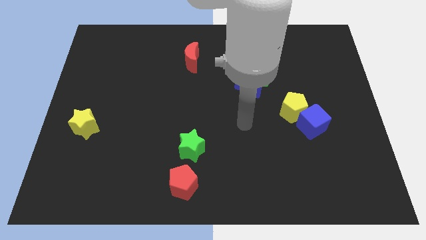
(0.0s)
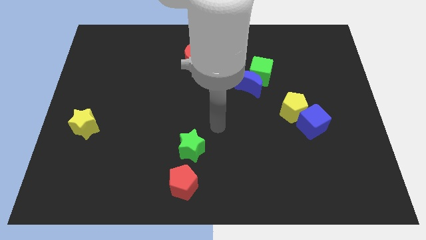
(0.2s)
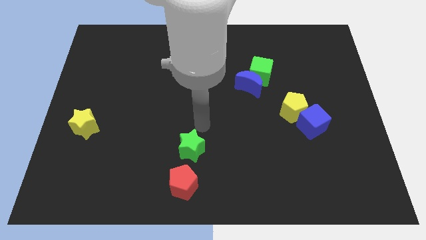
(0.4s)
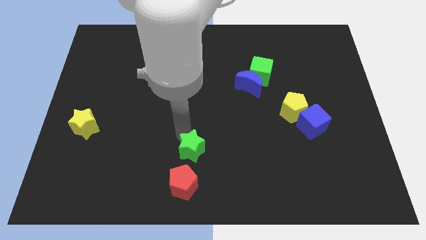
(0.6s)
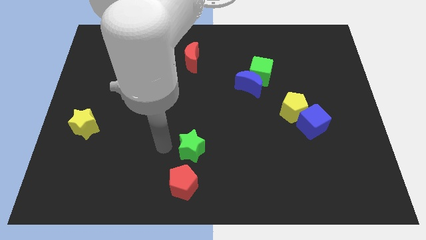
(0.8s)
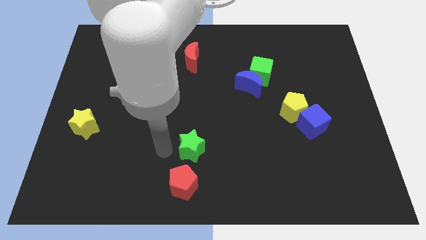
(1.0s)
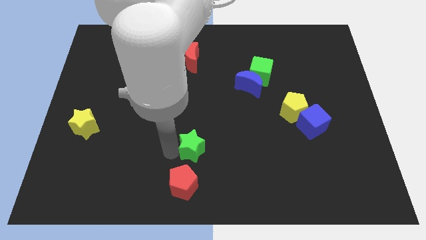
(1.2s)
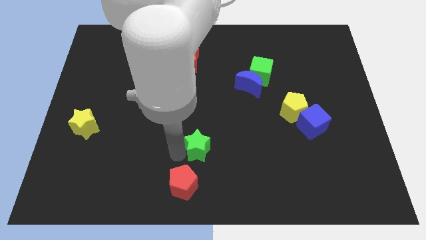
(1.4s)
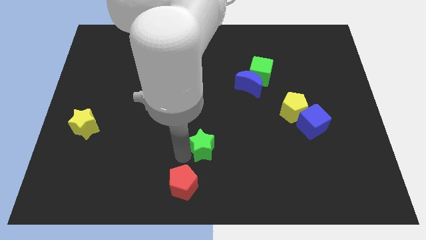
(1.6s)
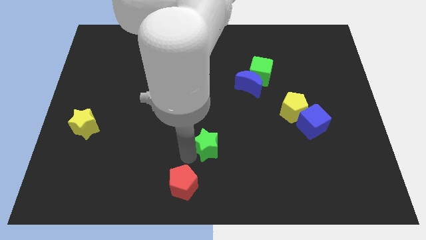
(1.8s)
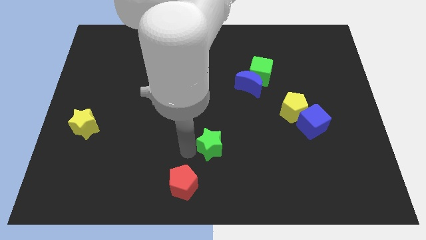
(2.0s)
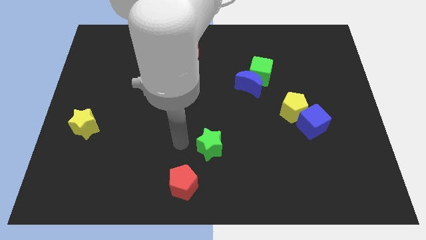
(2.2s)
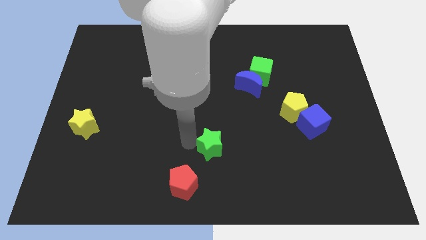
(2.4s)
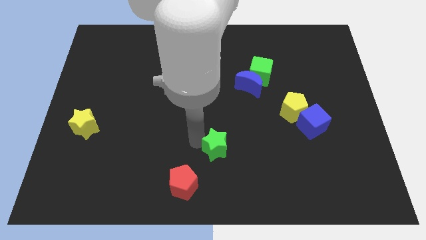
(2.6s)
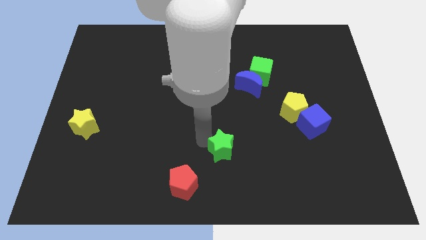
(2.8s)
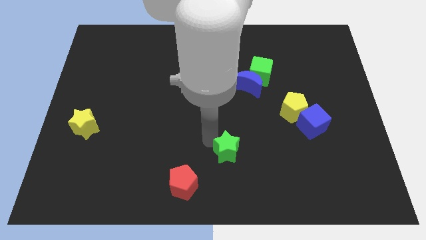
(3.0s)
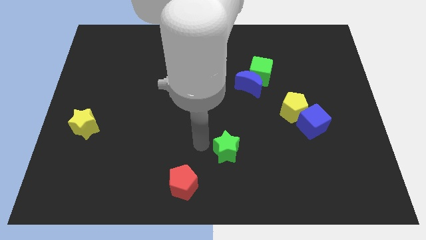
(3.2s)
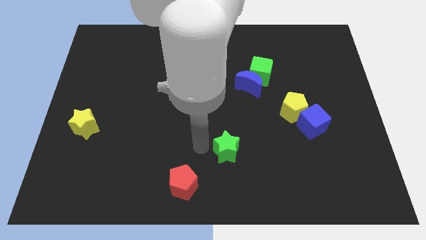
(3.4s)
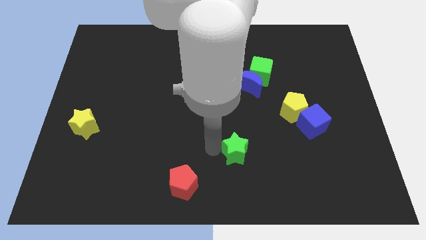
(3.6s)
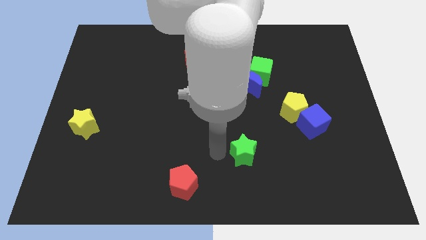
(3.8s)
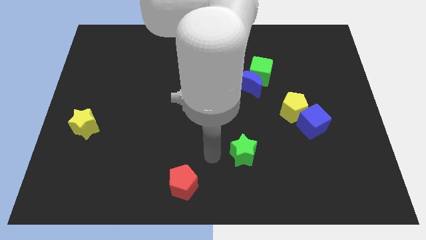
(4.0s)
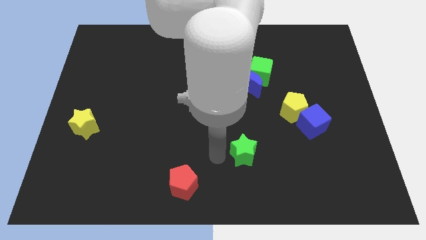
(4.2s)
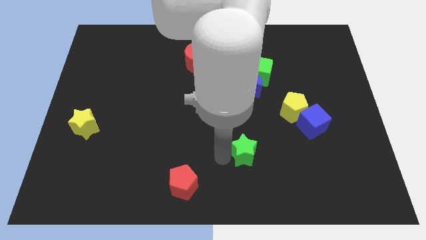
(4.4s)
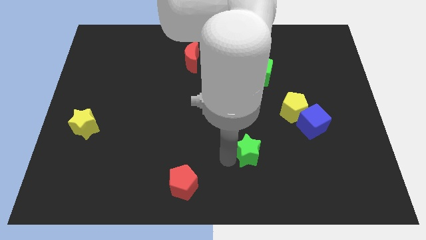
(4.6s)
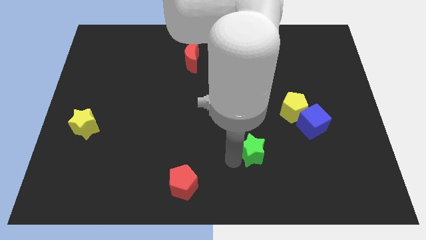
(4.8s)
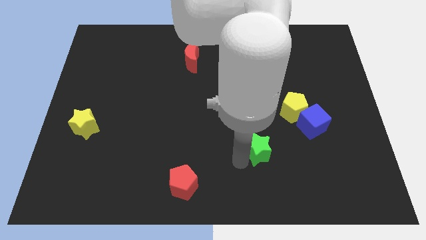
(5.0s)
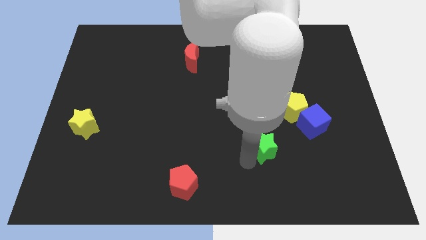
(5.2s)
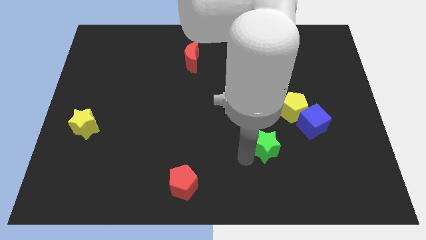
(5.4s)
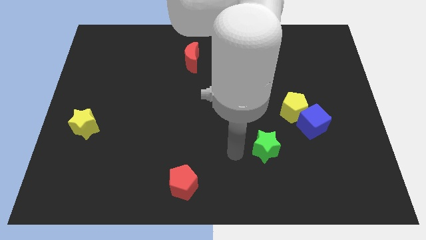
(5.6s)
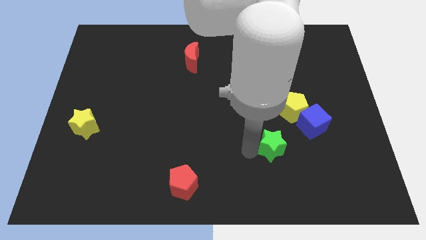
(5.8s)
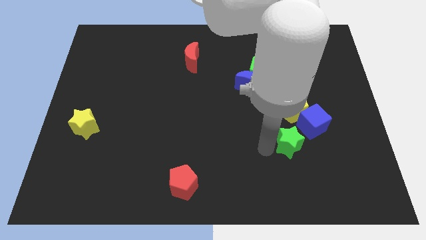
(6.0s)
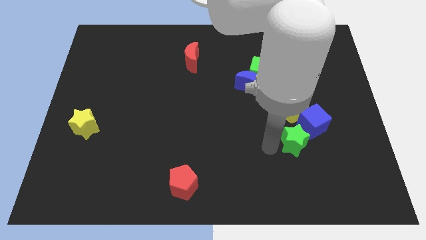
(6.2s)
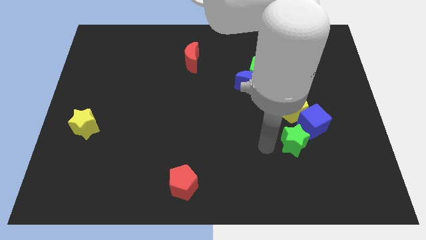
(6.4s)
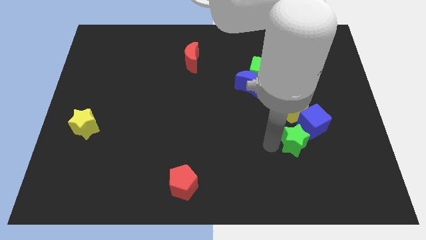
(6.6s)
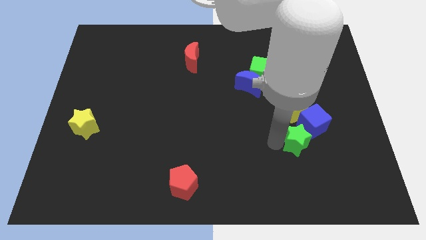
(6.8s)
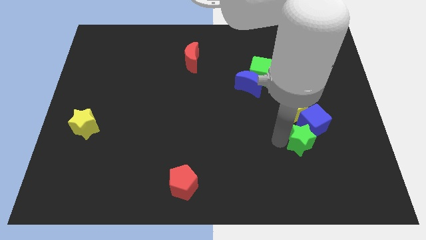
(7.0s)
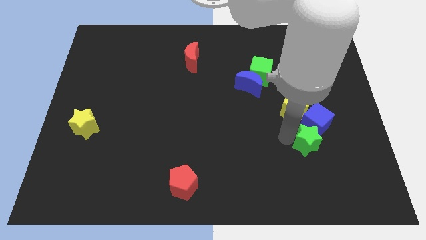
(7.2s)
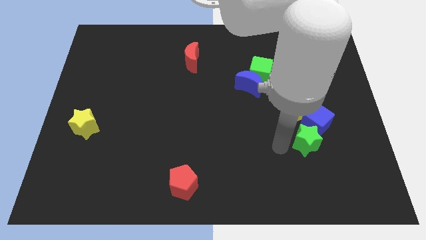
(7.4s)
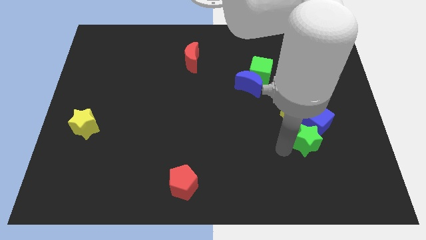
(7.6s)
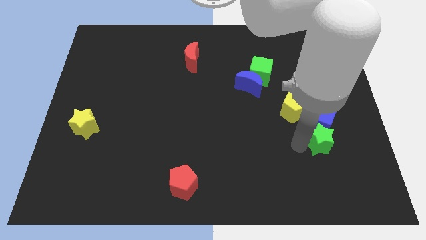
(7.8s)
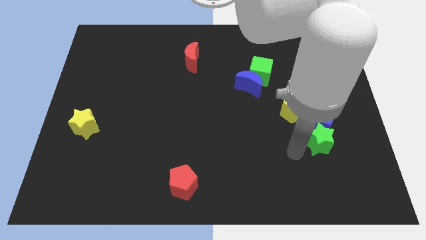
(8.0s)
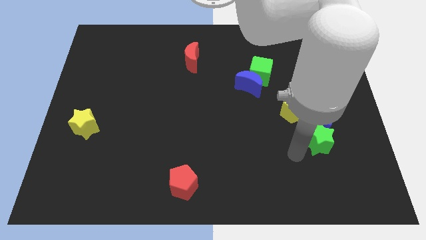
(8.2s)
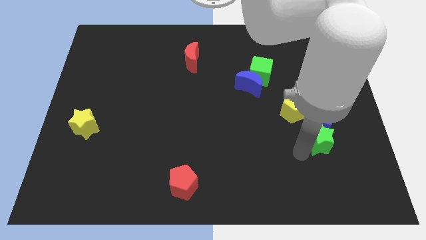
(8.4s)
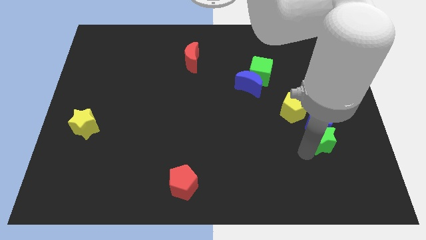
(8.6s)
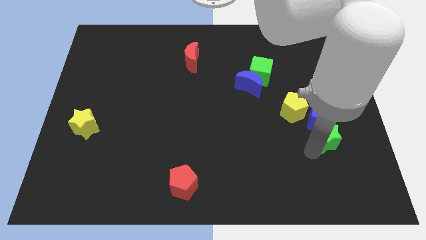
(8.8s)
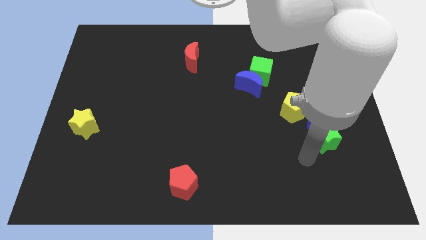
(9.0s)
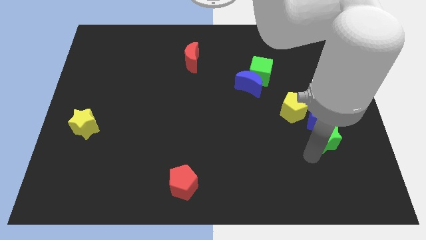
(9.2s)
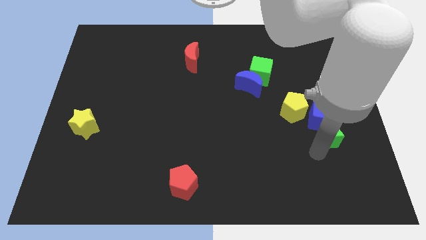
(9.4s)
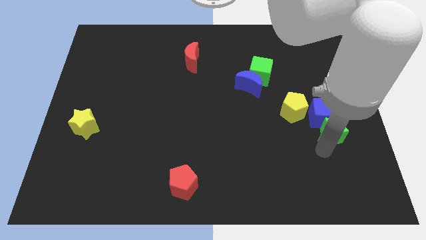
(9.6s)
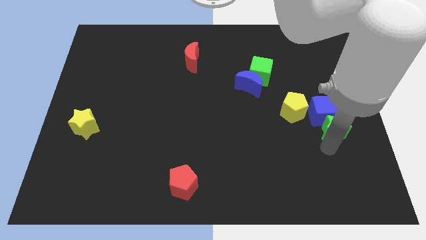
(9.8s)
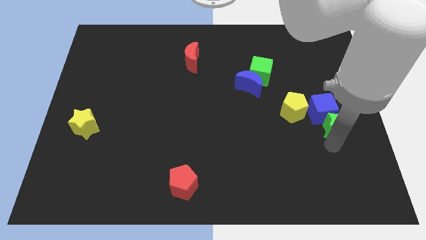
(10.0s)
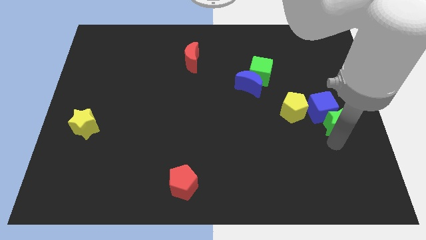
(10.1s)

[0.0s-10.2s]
slide the green star to the right side of the board

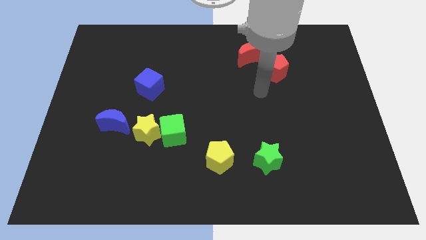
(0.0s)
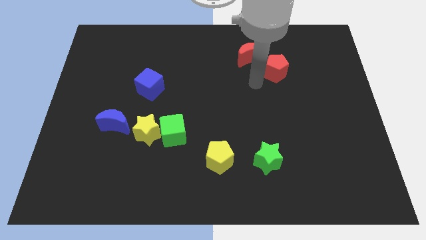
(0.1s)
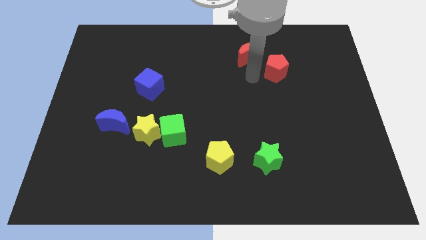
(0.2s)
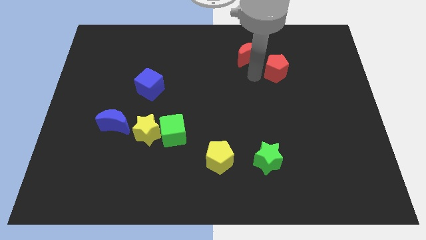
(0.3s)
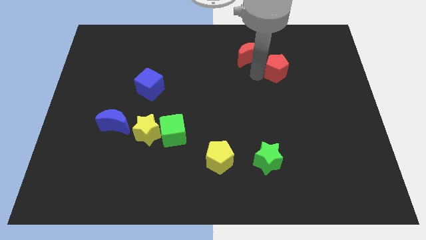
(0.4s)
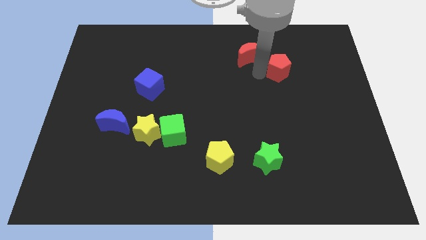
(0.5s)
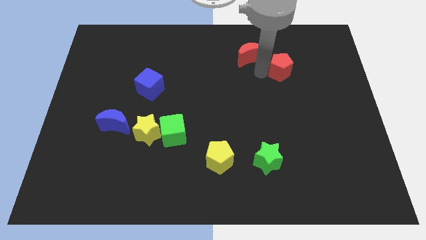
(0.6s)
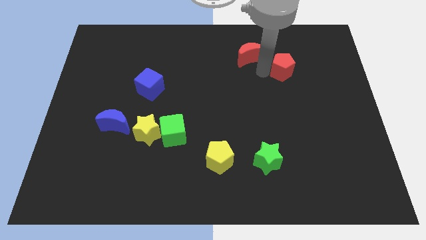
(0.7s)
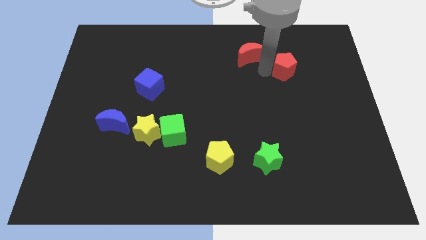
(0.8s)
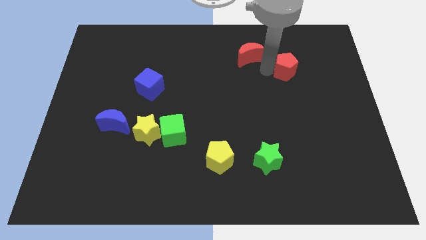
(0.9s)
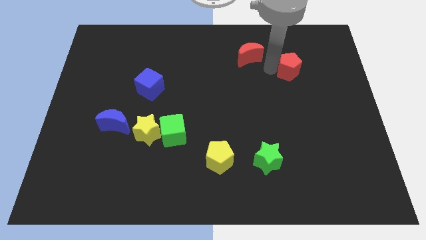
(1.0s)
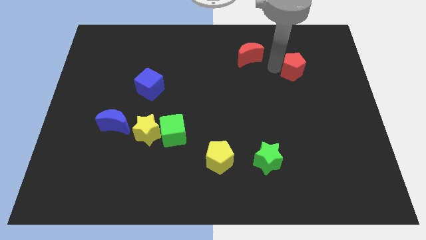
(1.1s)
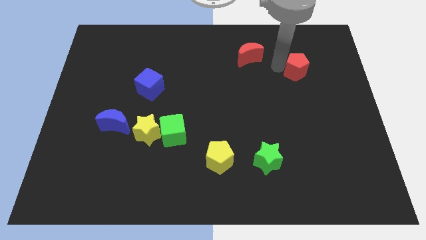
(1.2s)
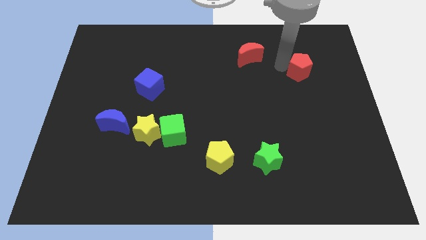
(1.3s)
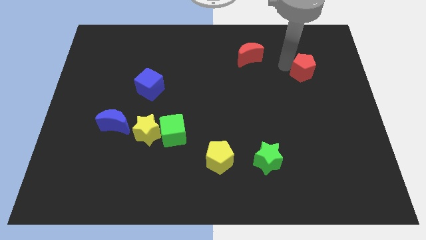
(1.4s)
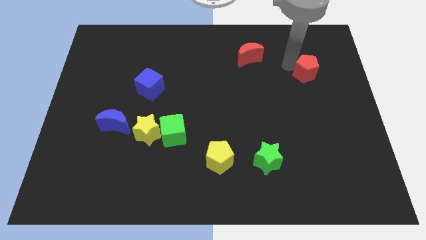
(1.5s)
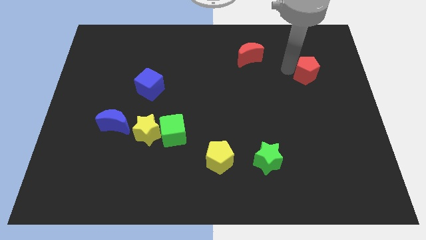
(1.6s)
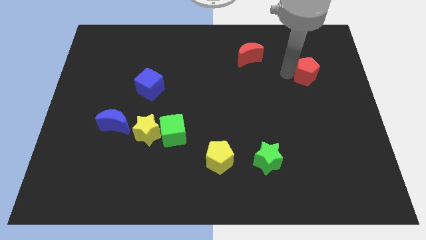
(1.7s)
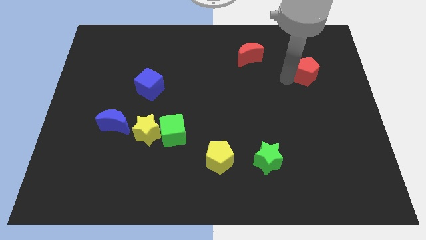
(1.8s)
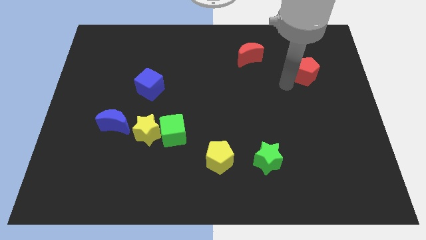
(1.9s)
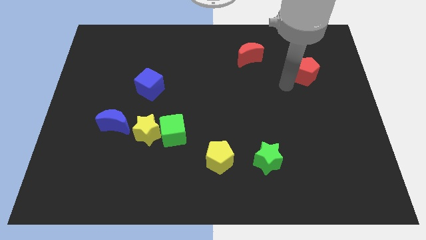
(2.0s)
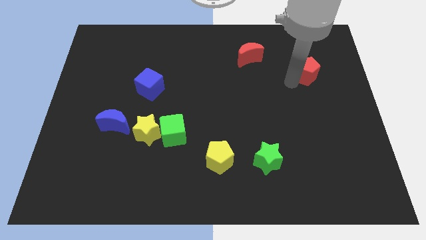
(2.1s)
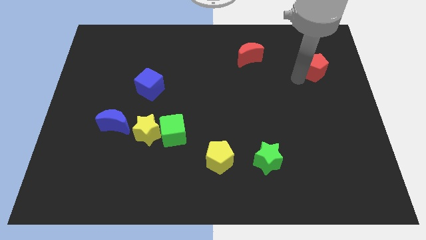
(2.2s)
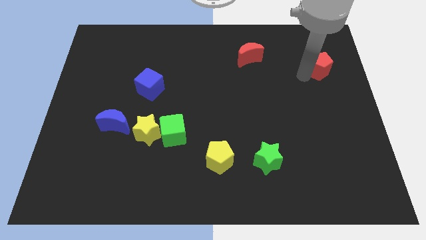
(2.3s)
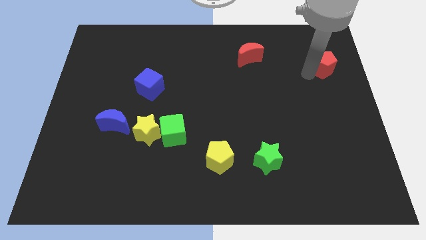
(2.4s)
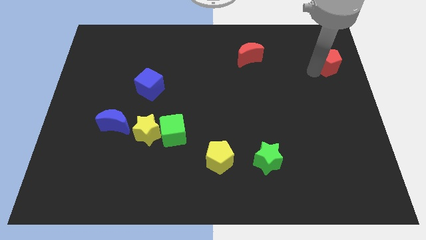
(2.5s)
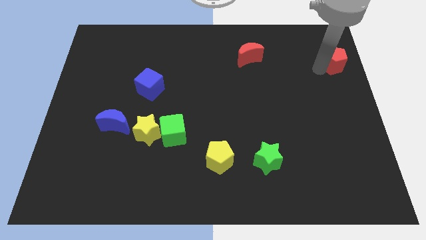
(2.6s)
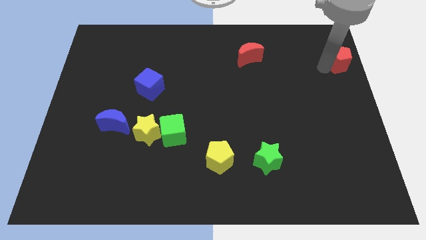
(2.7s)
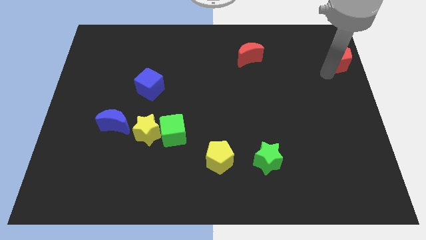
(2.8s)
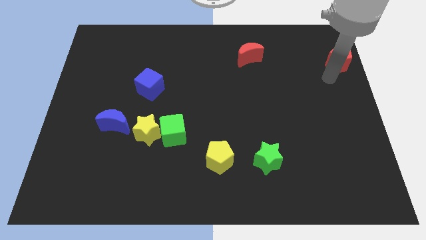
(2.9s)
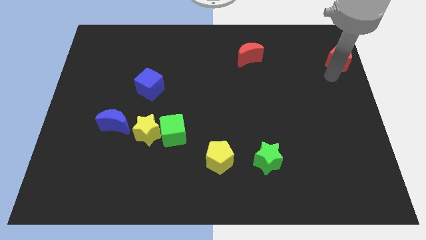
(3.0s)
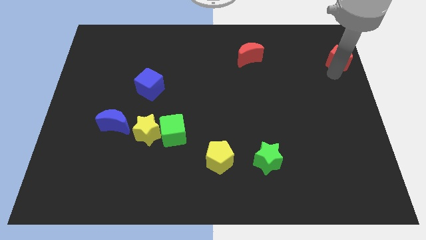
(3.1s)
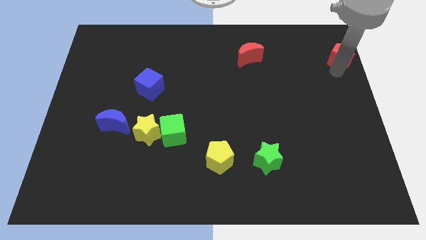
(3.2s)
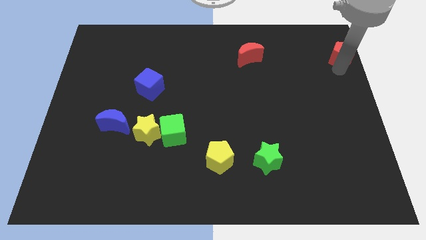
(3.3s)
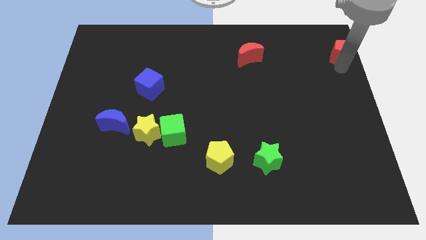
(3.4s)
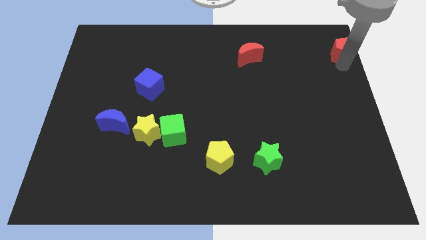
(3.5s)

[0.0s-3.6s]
slide the red pentagon to the top right
